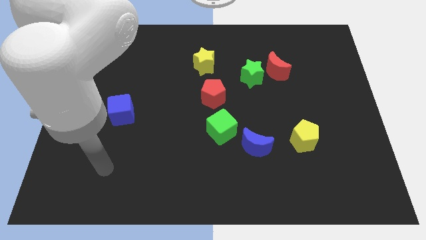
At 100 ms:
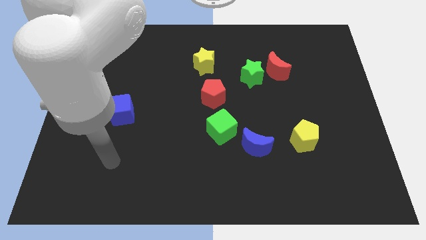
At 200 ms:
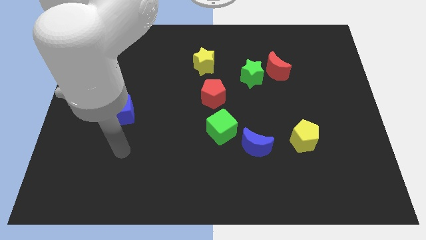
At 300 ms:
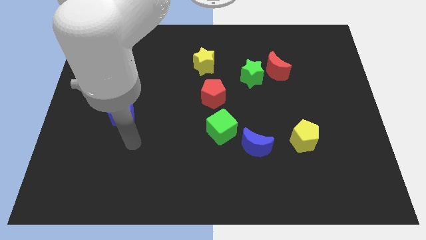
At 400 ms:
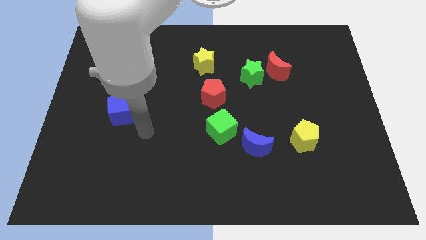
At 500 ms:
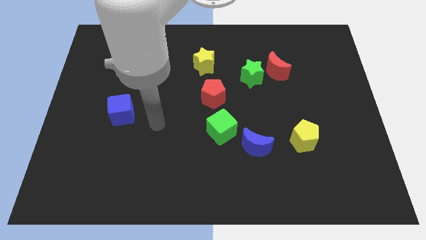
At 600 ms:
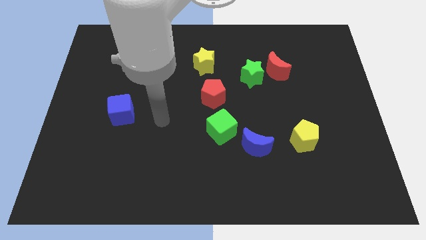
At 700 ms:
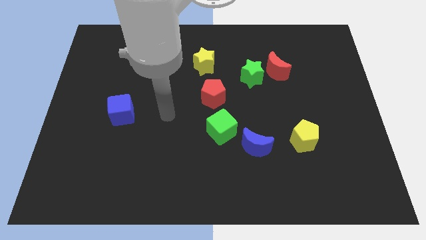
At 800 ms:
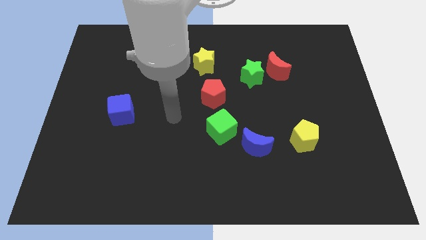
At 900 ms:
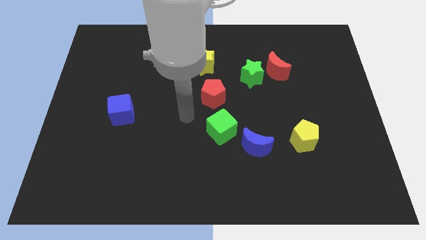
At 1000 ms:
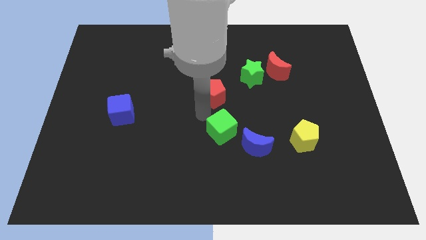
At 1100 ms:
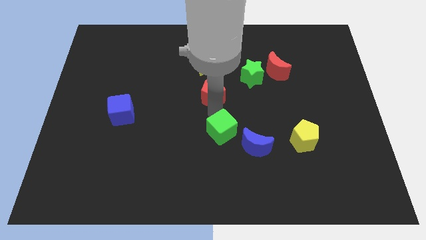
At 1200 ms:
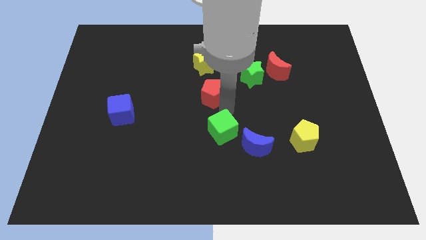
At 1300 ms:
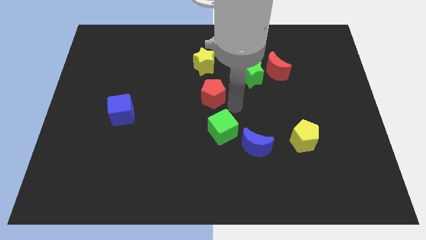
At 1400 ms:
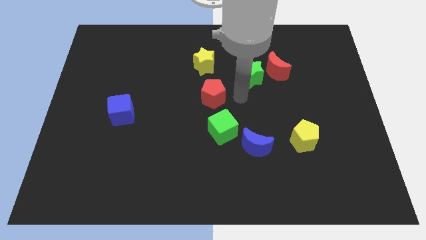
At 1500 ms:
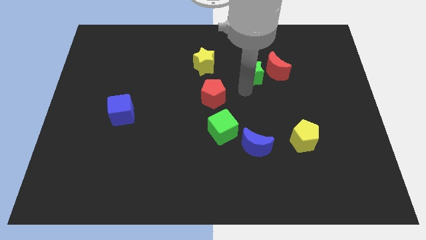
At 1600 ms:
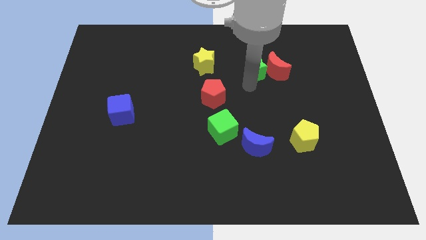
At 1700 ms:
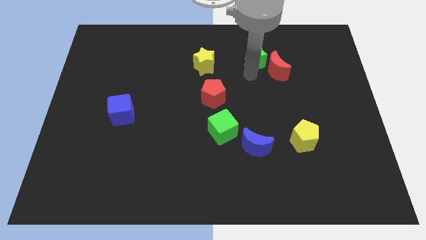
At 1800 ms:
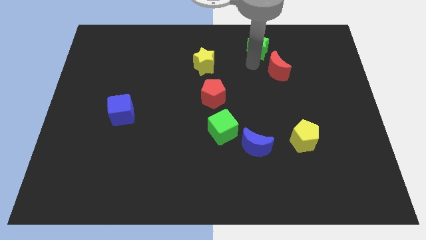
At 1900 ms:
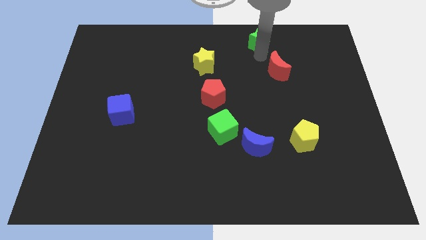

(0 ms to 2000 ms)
move the red moon away from the green star

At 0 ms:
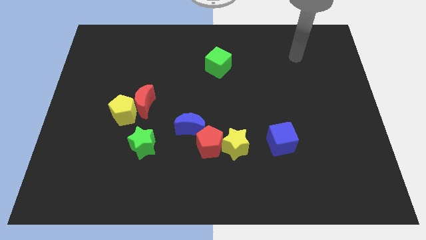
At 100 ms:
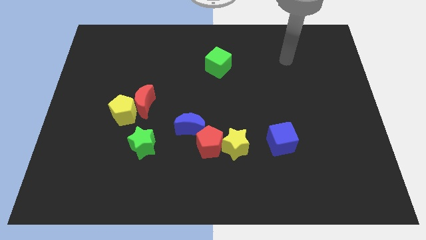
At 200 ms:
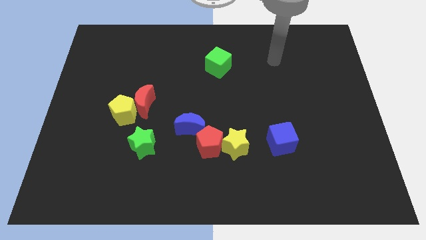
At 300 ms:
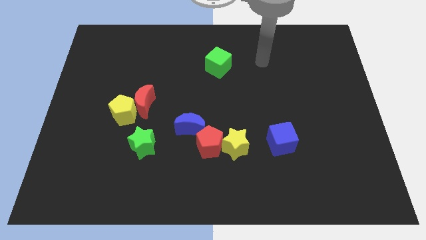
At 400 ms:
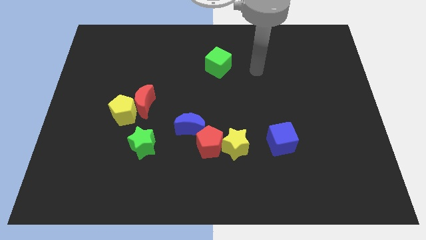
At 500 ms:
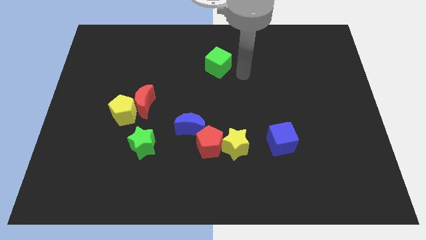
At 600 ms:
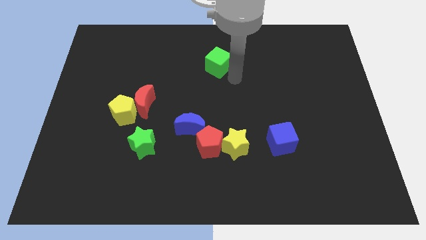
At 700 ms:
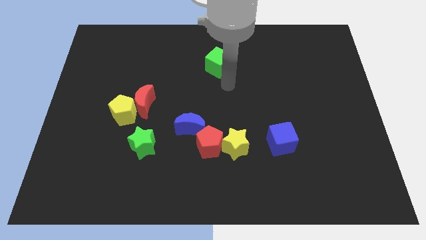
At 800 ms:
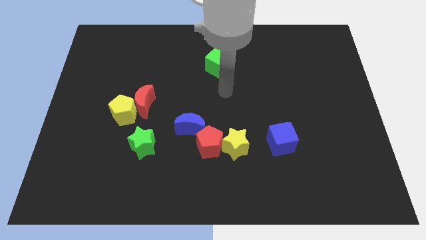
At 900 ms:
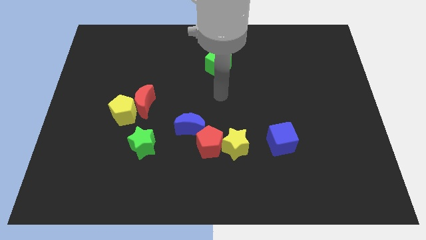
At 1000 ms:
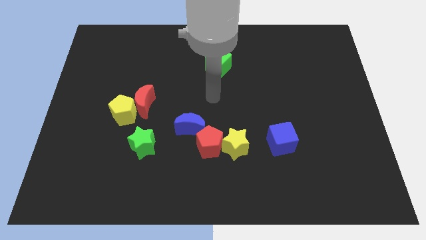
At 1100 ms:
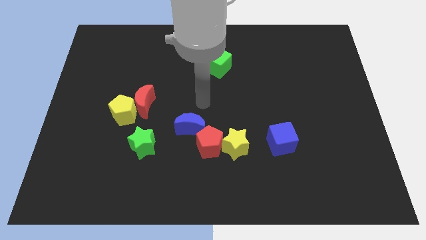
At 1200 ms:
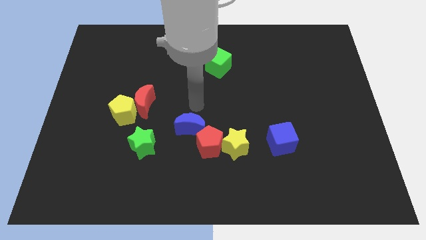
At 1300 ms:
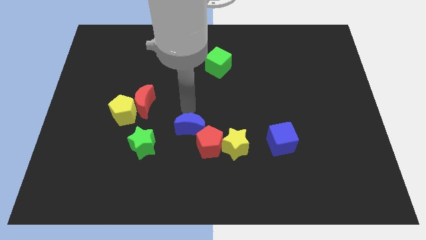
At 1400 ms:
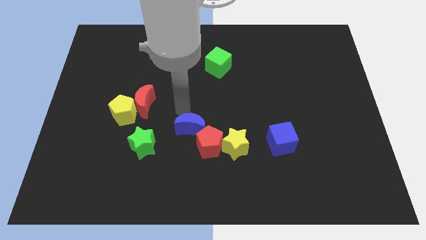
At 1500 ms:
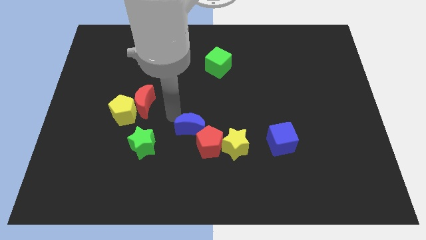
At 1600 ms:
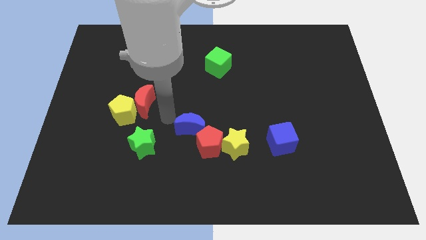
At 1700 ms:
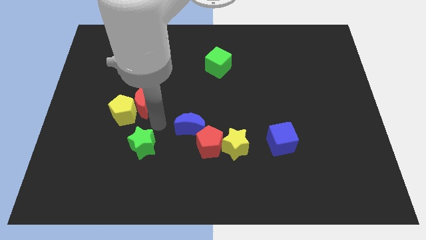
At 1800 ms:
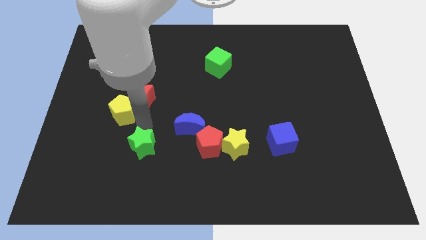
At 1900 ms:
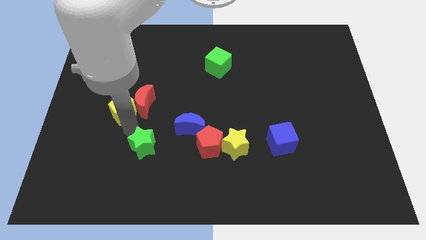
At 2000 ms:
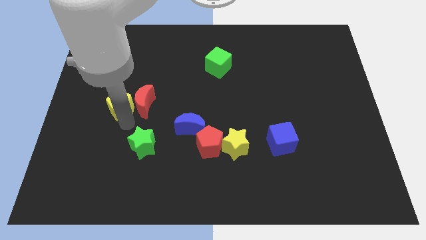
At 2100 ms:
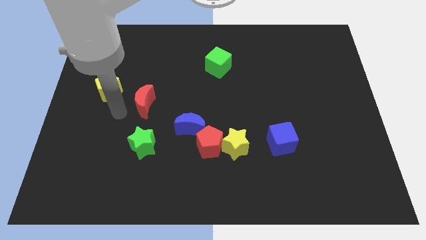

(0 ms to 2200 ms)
move the red moon away from the yellow pentagon

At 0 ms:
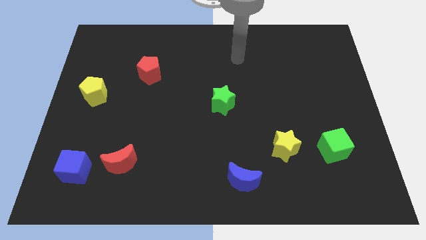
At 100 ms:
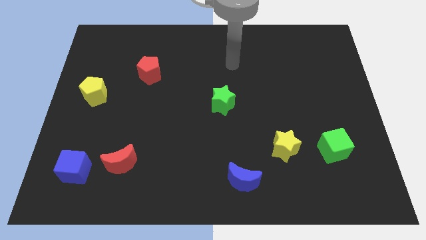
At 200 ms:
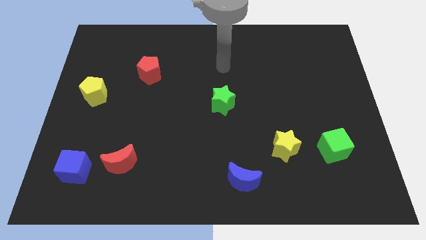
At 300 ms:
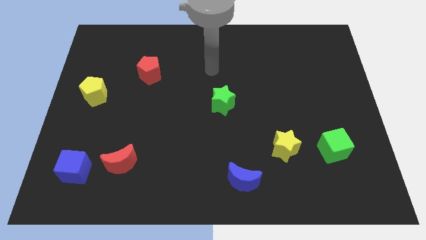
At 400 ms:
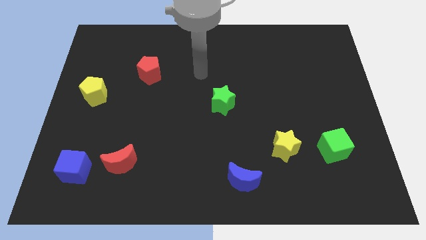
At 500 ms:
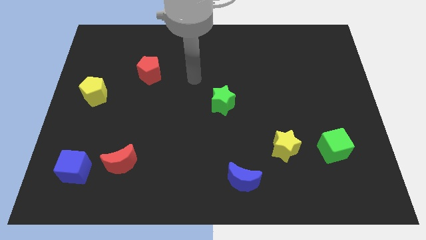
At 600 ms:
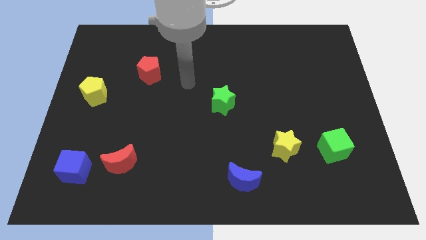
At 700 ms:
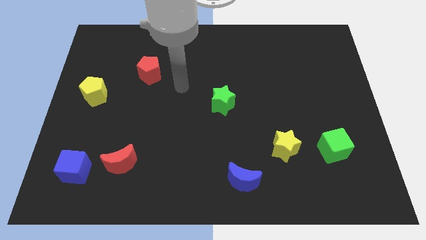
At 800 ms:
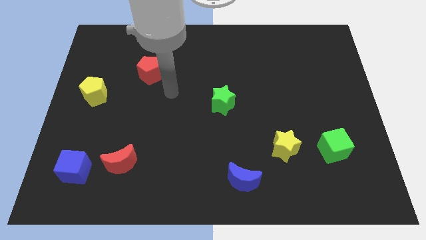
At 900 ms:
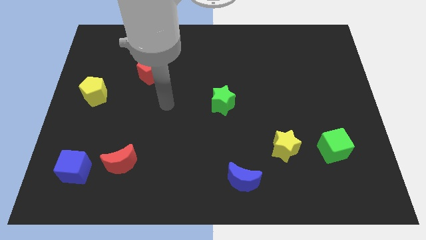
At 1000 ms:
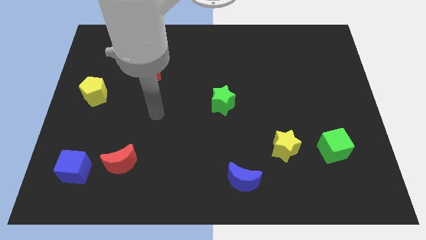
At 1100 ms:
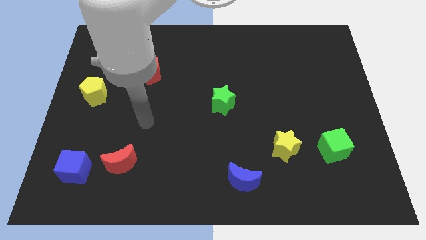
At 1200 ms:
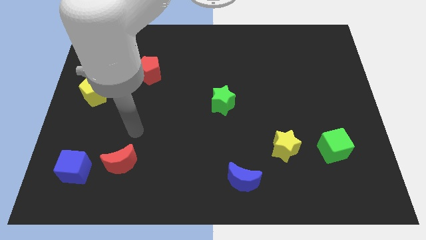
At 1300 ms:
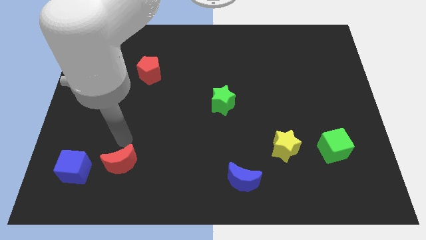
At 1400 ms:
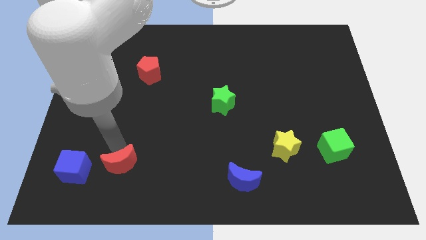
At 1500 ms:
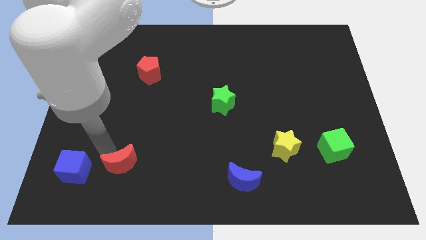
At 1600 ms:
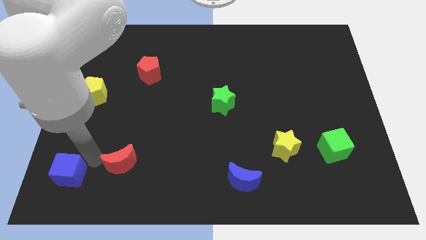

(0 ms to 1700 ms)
move the red moon away from the blue cube

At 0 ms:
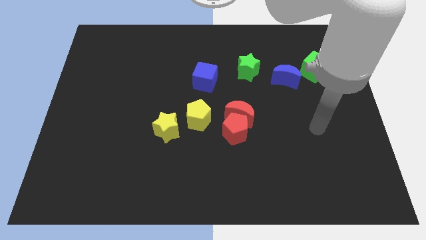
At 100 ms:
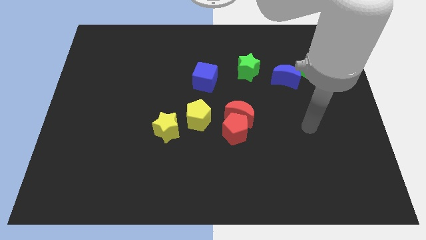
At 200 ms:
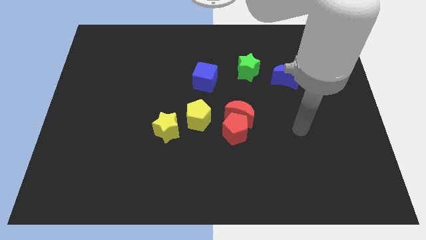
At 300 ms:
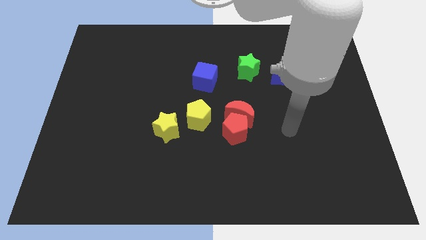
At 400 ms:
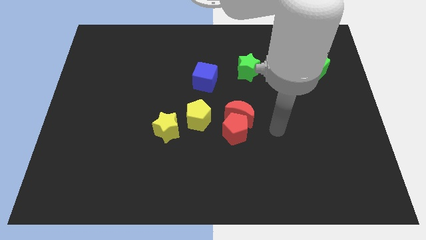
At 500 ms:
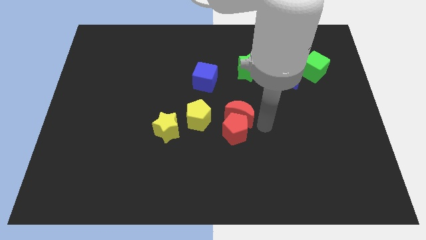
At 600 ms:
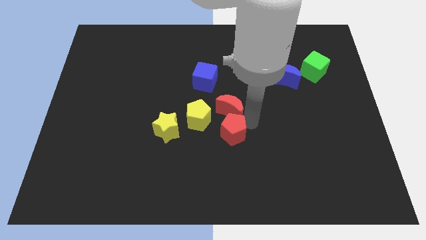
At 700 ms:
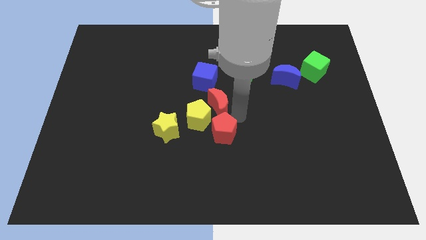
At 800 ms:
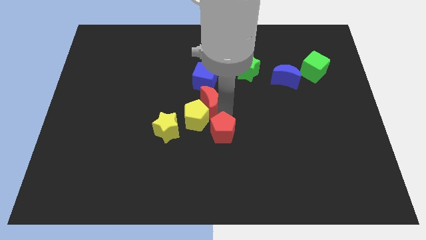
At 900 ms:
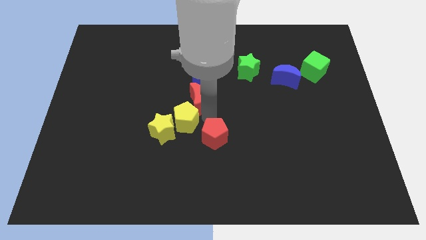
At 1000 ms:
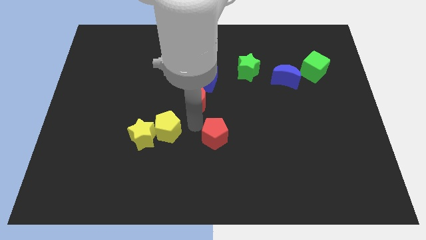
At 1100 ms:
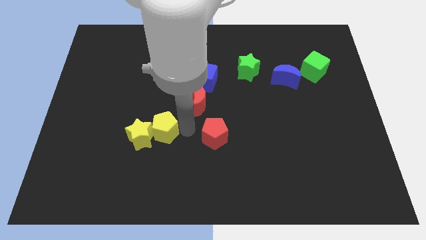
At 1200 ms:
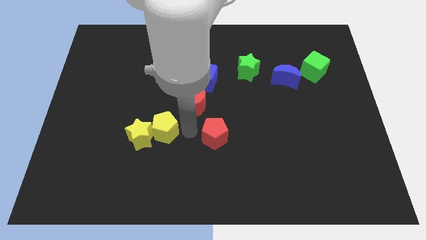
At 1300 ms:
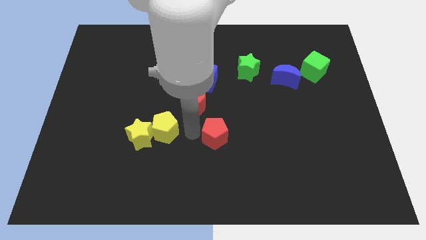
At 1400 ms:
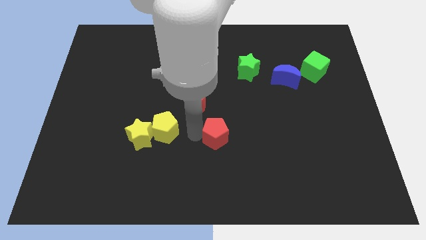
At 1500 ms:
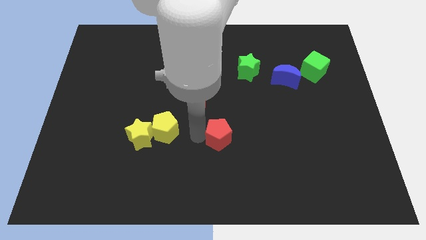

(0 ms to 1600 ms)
separate the red pentagon from the red moon and yellow pentagon

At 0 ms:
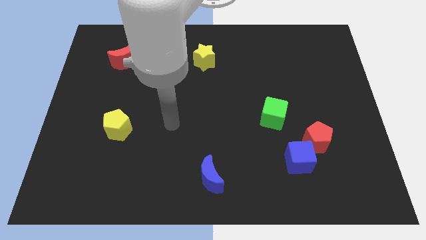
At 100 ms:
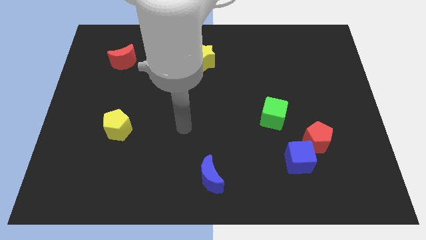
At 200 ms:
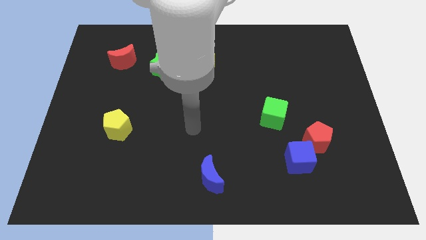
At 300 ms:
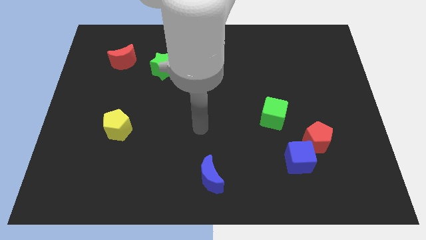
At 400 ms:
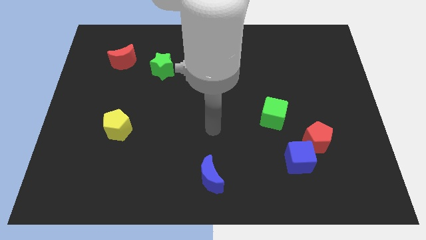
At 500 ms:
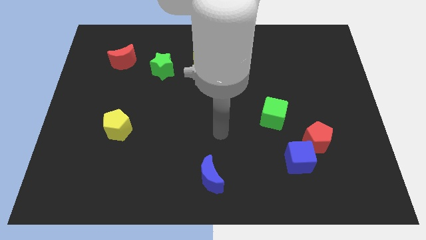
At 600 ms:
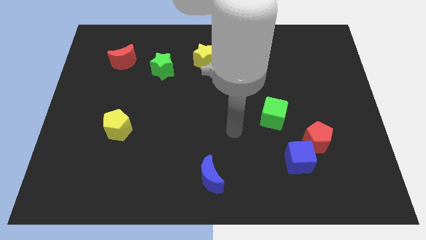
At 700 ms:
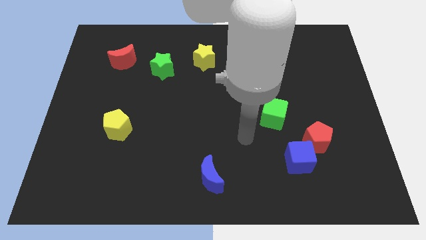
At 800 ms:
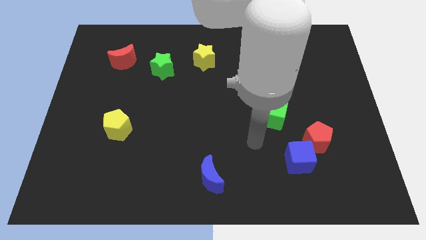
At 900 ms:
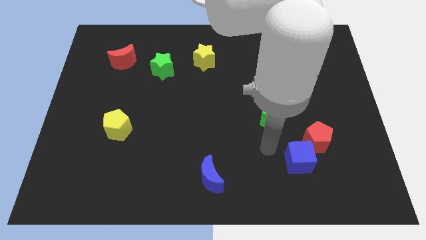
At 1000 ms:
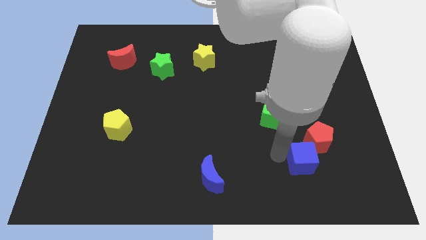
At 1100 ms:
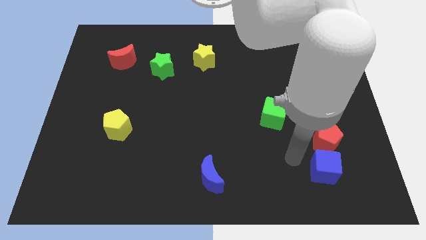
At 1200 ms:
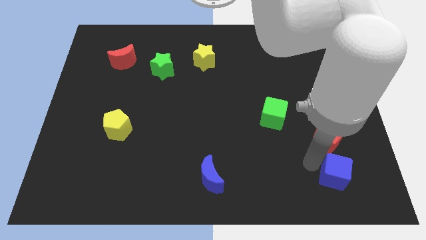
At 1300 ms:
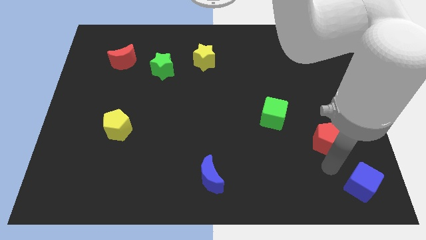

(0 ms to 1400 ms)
move the red pentagon away from the blue cube

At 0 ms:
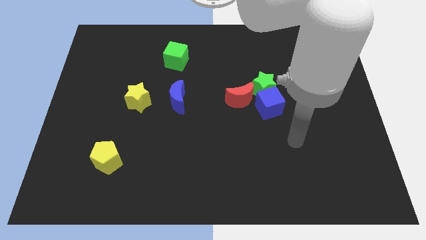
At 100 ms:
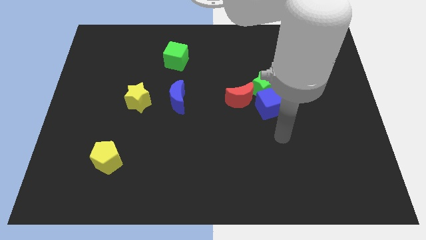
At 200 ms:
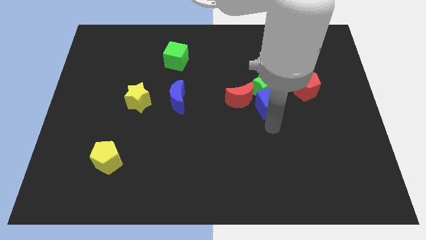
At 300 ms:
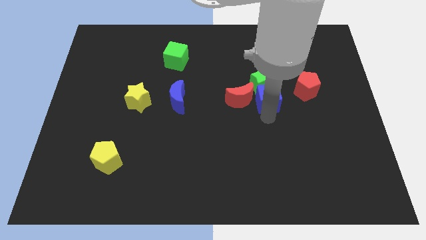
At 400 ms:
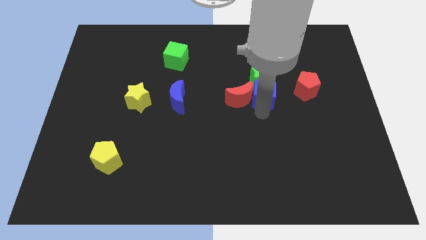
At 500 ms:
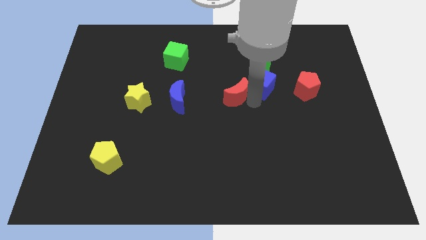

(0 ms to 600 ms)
separate the green star from the blue cube and red moon

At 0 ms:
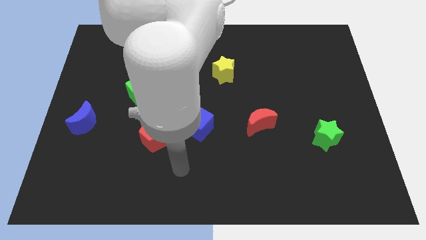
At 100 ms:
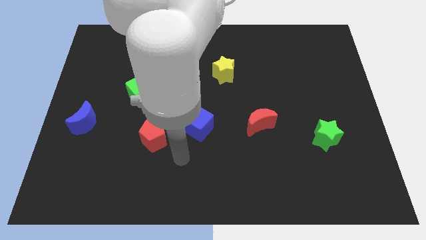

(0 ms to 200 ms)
separate the red pentagon from the blue cube
